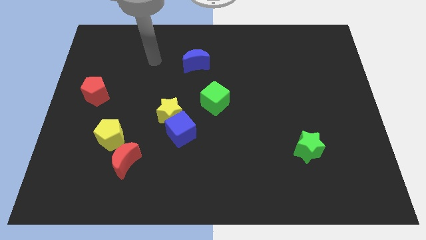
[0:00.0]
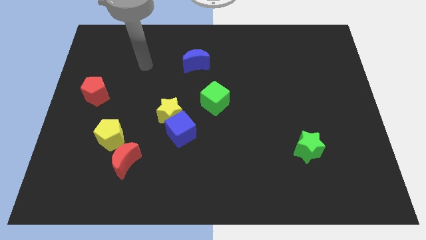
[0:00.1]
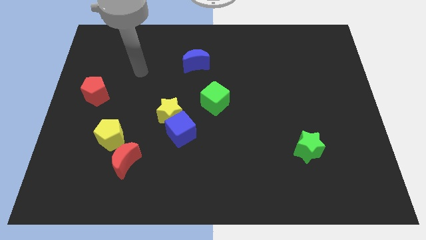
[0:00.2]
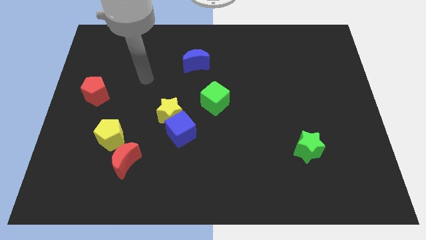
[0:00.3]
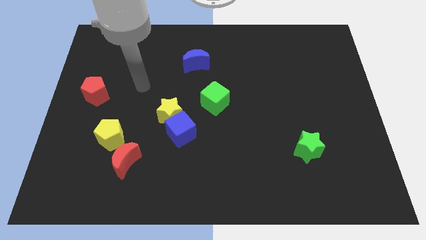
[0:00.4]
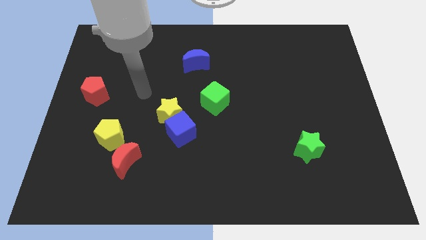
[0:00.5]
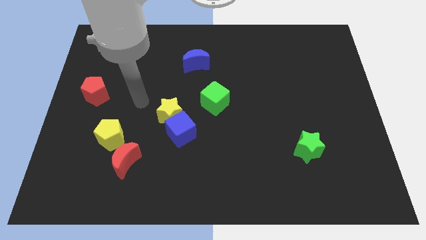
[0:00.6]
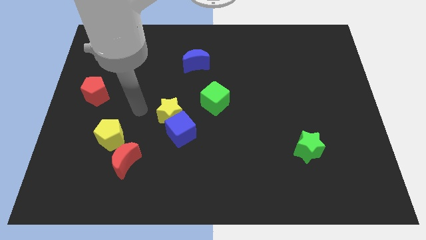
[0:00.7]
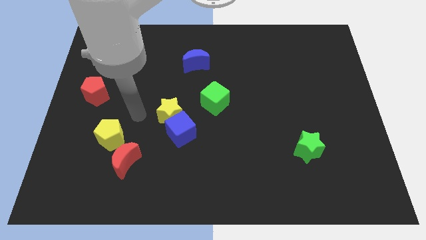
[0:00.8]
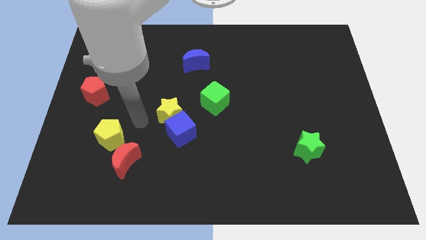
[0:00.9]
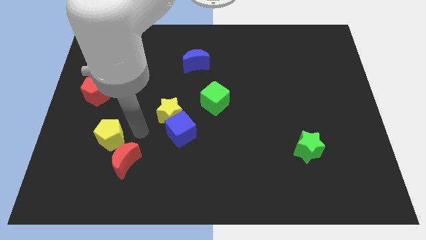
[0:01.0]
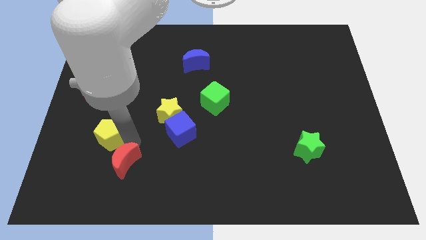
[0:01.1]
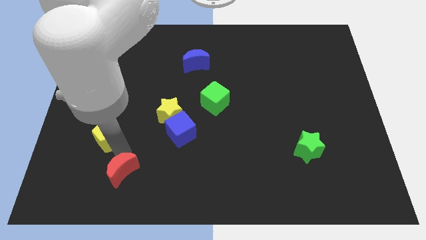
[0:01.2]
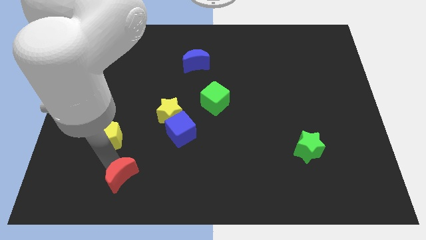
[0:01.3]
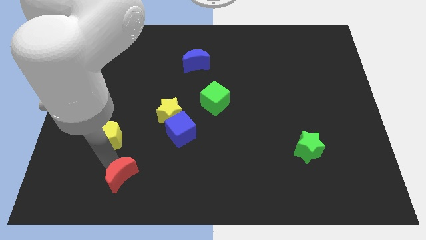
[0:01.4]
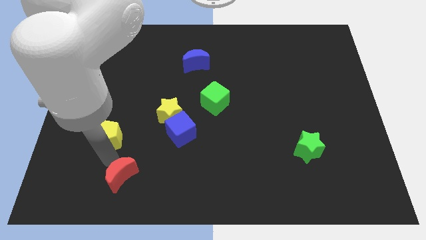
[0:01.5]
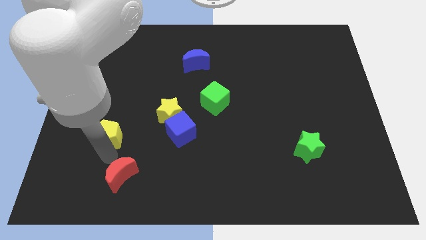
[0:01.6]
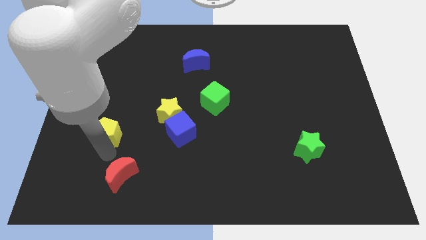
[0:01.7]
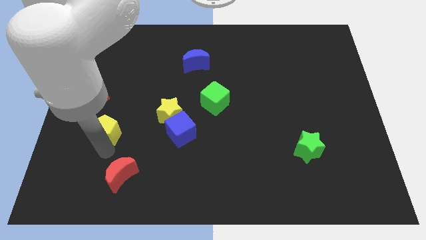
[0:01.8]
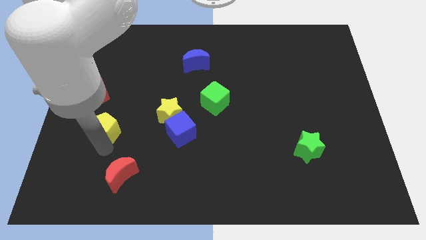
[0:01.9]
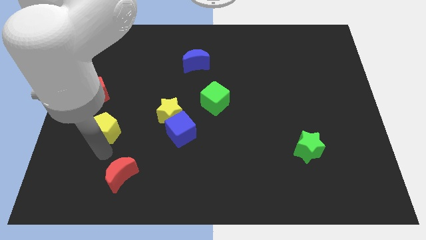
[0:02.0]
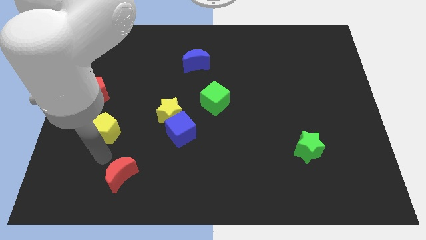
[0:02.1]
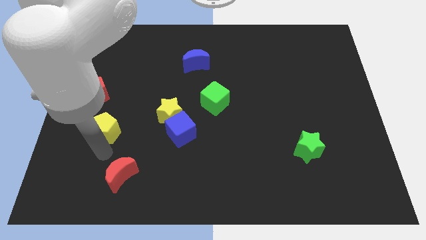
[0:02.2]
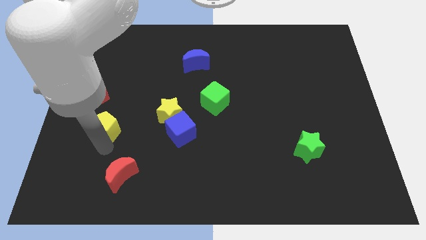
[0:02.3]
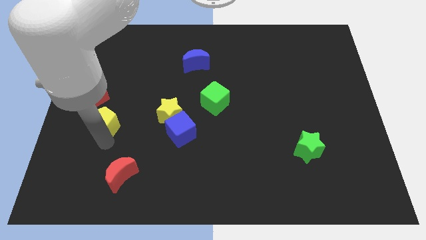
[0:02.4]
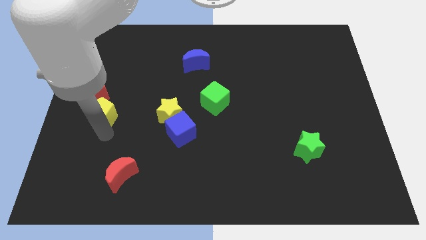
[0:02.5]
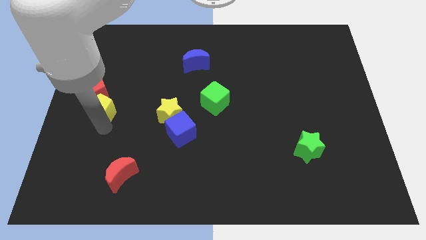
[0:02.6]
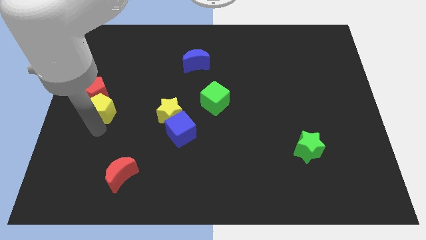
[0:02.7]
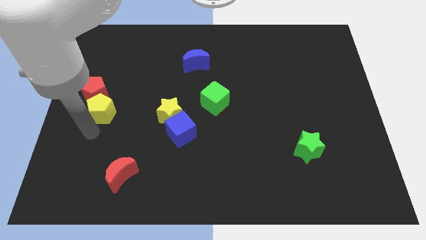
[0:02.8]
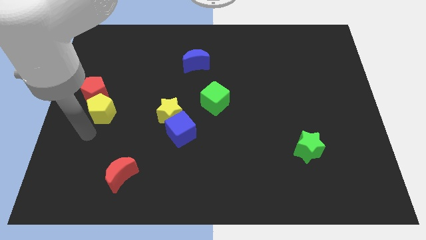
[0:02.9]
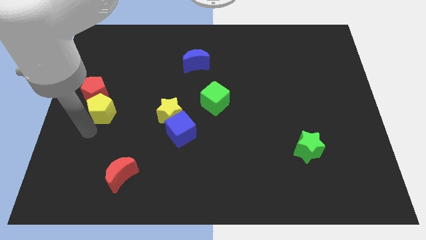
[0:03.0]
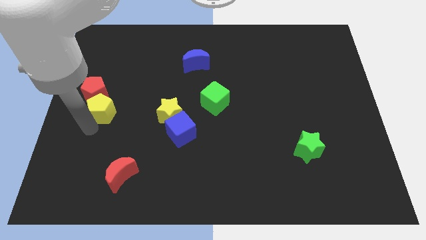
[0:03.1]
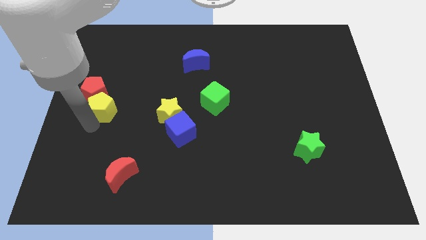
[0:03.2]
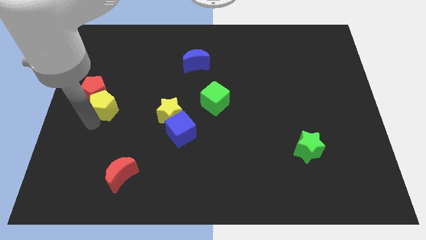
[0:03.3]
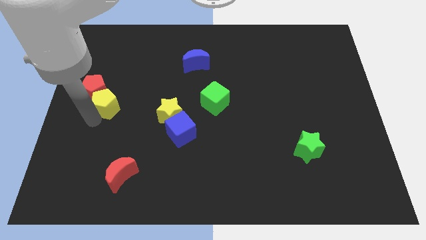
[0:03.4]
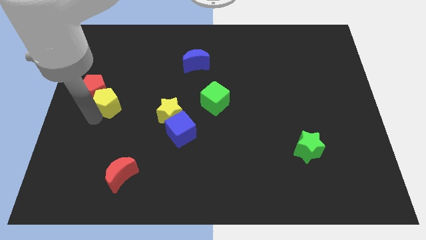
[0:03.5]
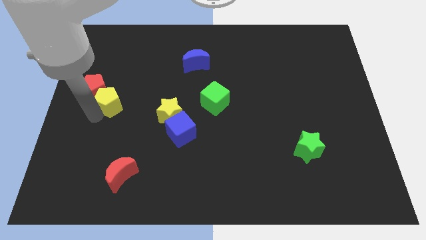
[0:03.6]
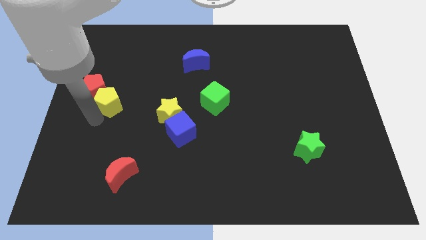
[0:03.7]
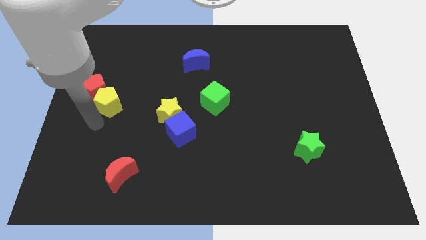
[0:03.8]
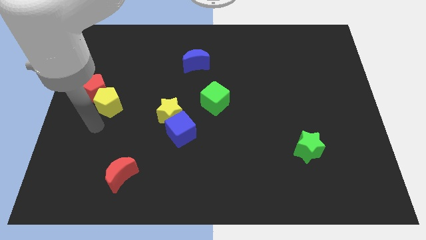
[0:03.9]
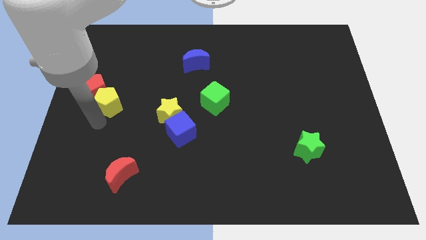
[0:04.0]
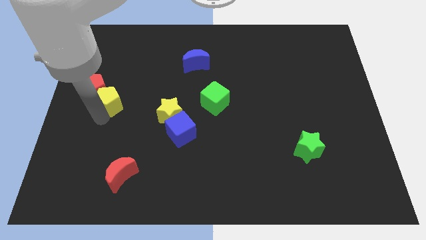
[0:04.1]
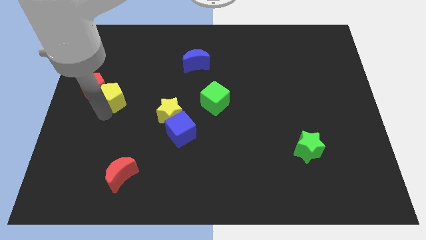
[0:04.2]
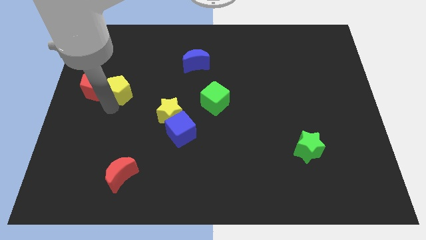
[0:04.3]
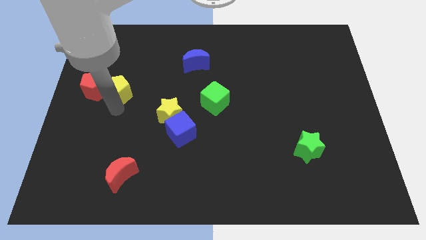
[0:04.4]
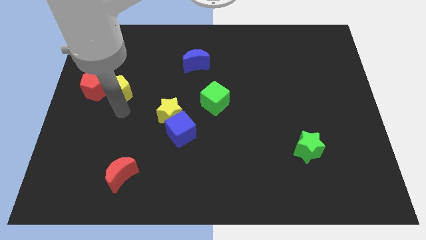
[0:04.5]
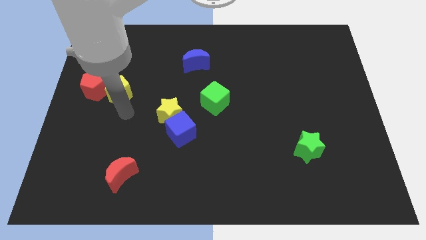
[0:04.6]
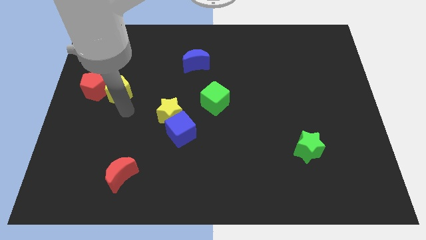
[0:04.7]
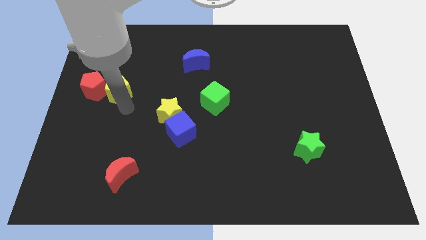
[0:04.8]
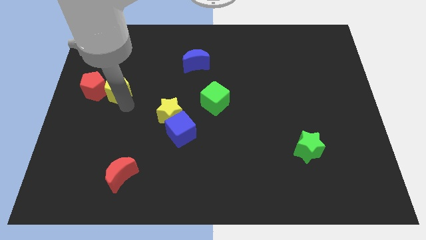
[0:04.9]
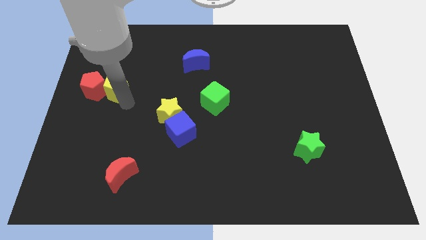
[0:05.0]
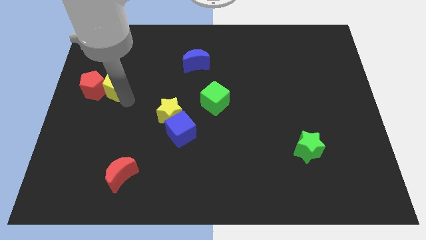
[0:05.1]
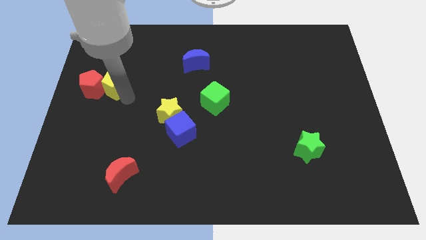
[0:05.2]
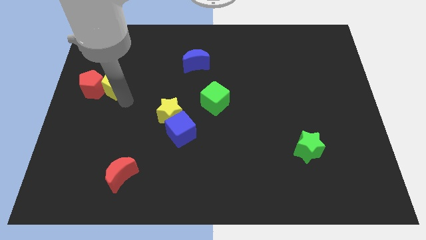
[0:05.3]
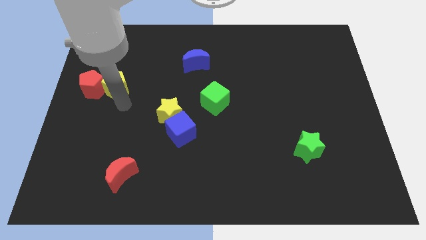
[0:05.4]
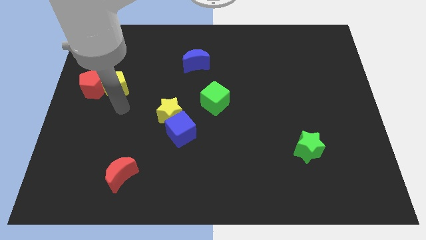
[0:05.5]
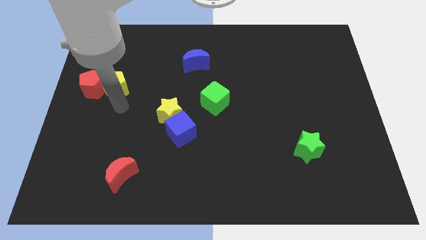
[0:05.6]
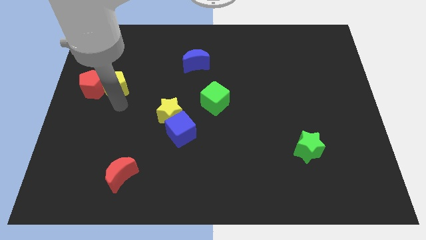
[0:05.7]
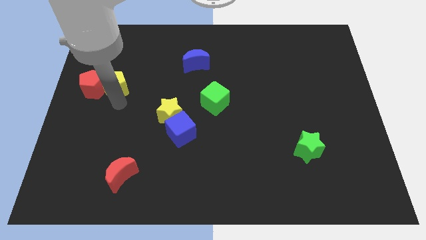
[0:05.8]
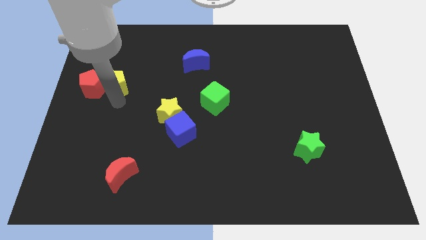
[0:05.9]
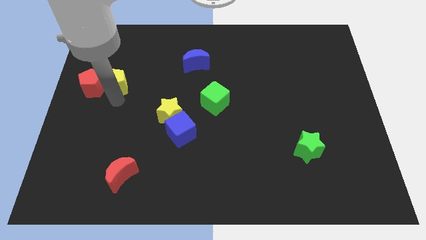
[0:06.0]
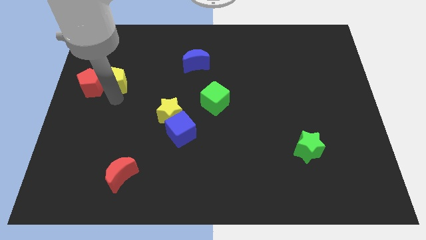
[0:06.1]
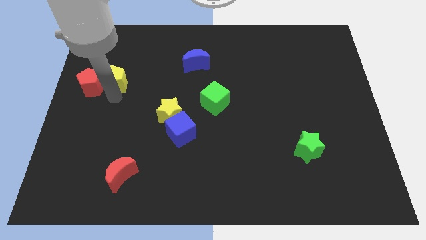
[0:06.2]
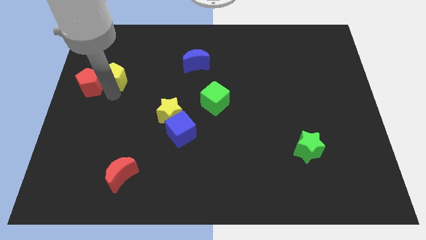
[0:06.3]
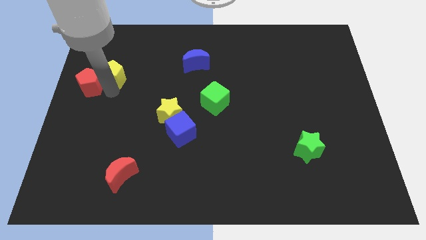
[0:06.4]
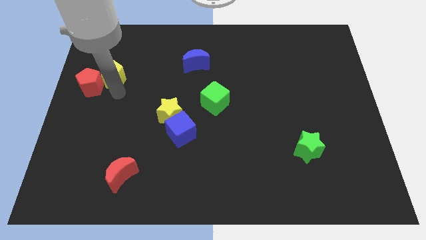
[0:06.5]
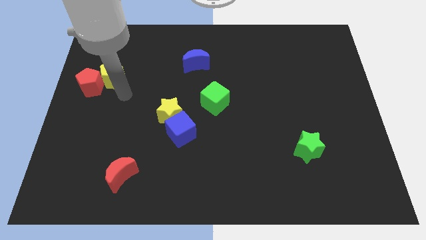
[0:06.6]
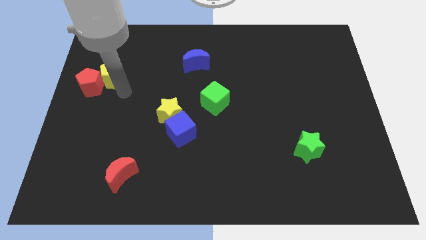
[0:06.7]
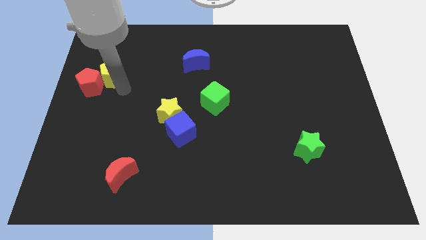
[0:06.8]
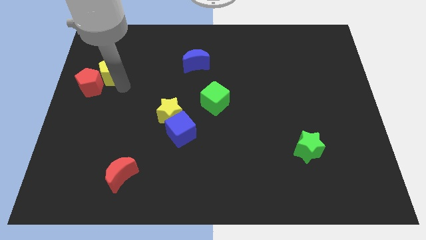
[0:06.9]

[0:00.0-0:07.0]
slide the yellow pentagon to the top side of the red pentagon
